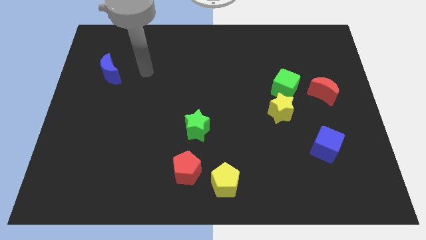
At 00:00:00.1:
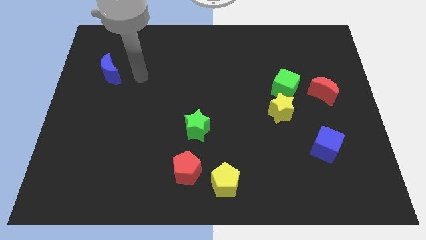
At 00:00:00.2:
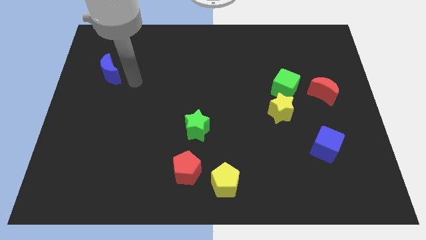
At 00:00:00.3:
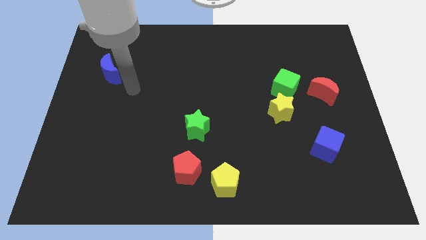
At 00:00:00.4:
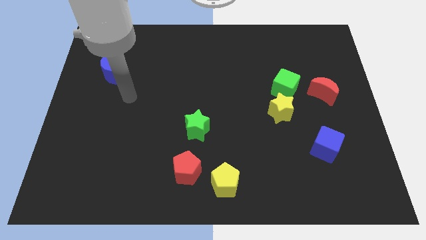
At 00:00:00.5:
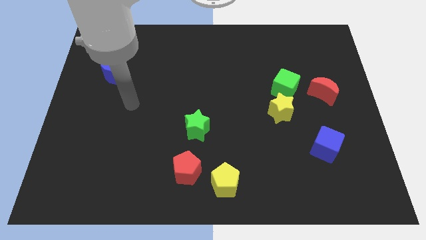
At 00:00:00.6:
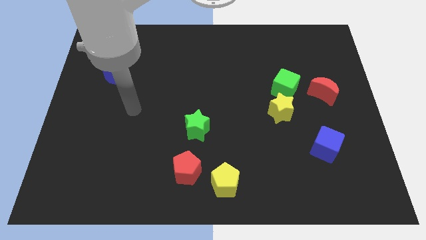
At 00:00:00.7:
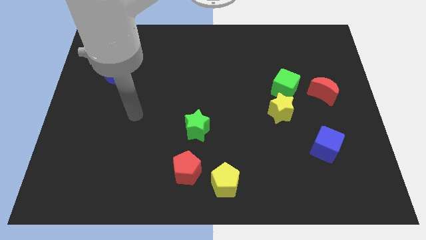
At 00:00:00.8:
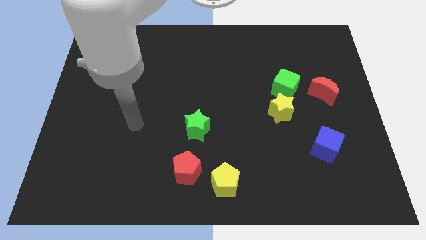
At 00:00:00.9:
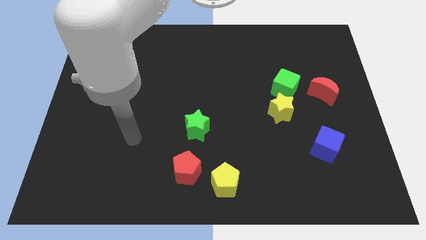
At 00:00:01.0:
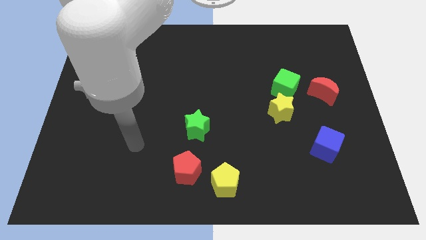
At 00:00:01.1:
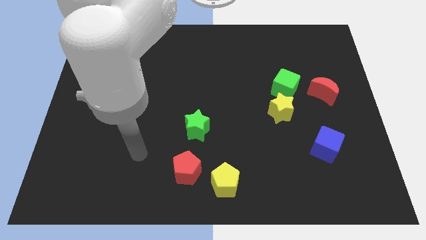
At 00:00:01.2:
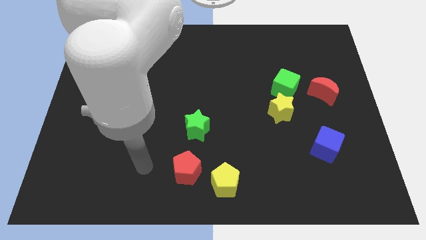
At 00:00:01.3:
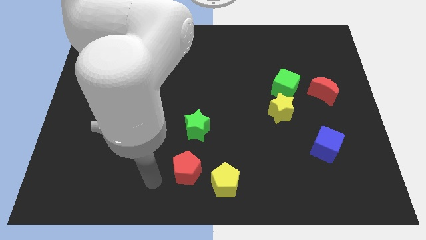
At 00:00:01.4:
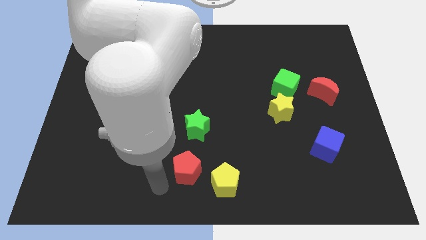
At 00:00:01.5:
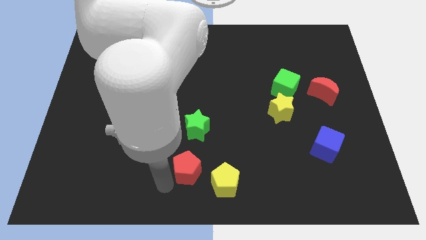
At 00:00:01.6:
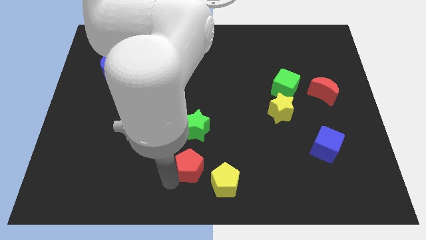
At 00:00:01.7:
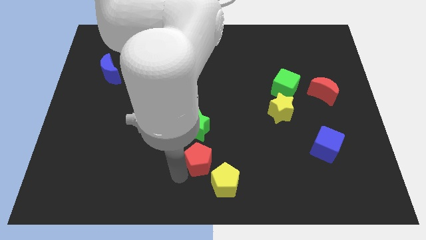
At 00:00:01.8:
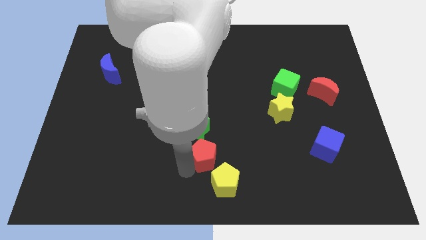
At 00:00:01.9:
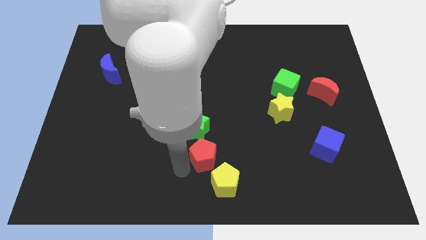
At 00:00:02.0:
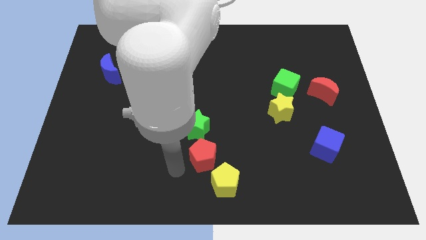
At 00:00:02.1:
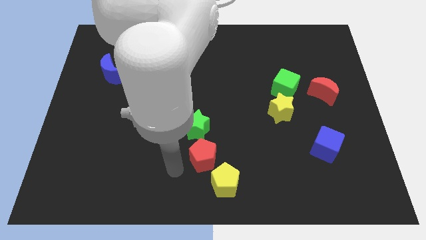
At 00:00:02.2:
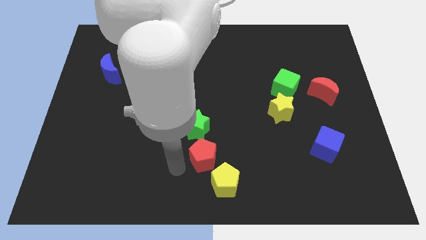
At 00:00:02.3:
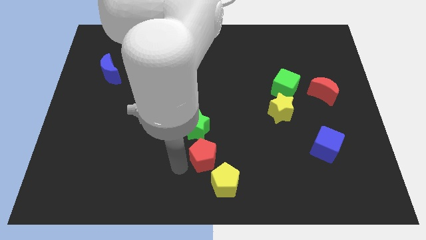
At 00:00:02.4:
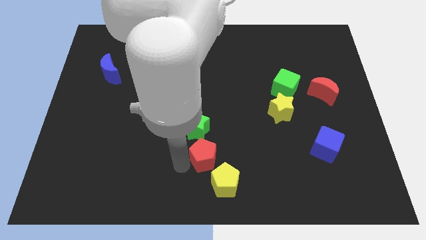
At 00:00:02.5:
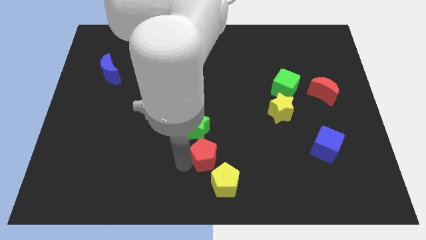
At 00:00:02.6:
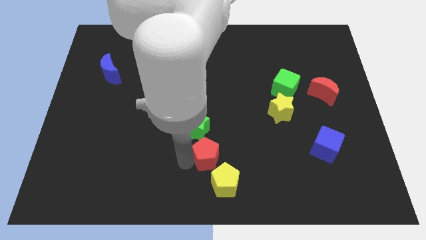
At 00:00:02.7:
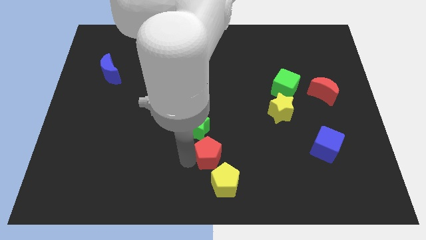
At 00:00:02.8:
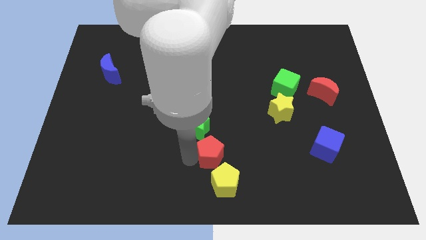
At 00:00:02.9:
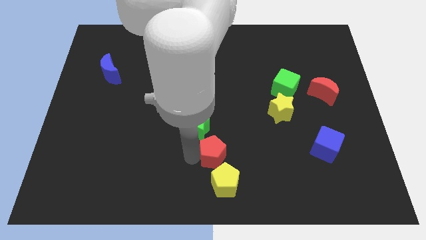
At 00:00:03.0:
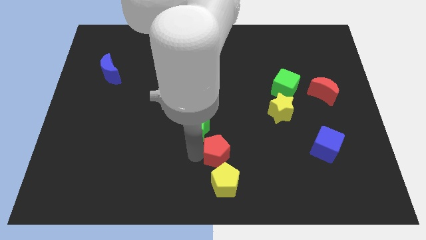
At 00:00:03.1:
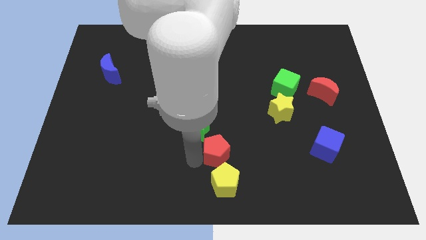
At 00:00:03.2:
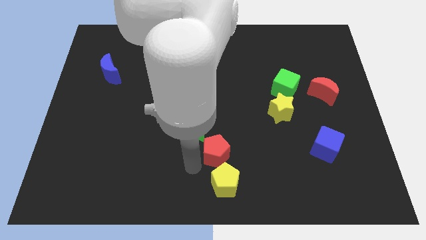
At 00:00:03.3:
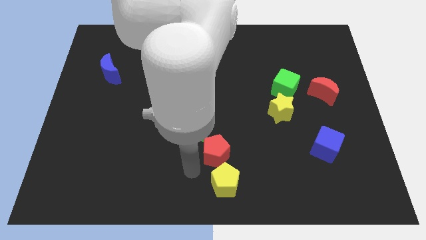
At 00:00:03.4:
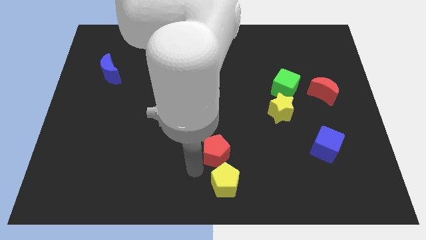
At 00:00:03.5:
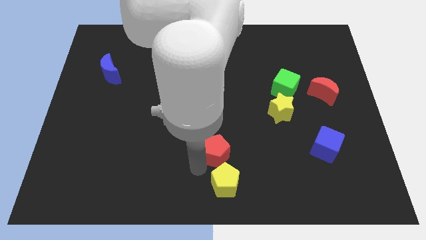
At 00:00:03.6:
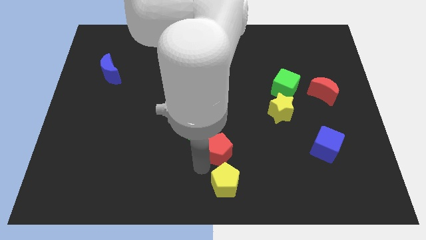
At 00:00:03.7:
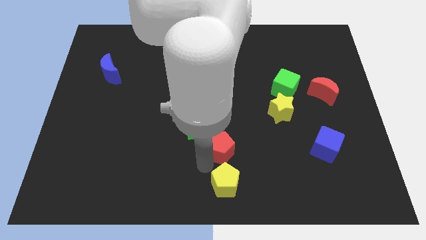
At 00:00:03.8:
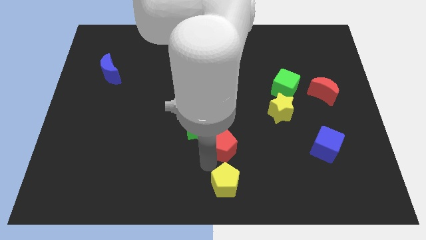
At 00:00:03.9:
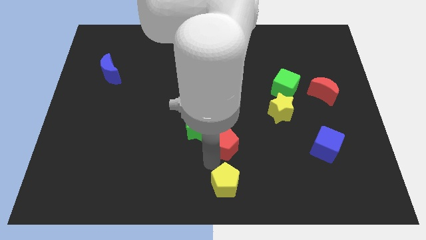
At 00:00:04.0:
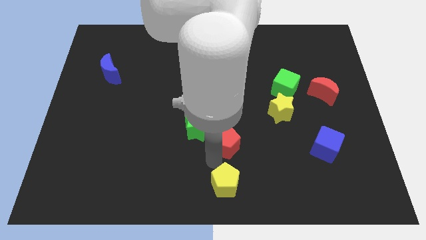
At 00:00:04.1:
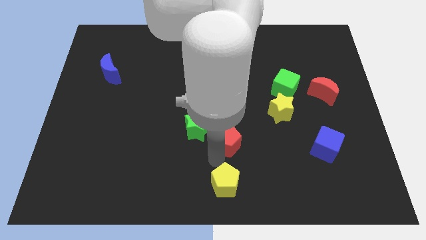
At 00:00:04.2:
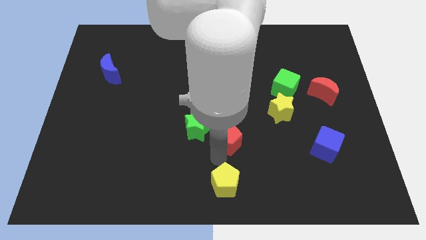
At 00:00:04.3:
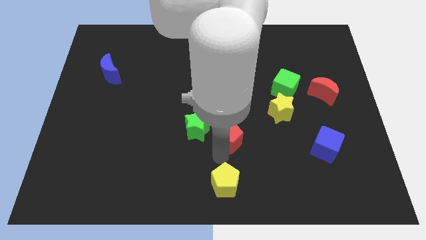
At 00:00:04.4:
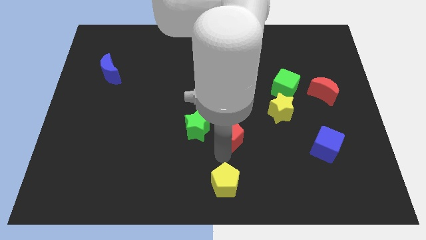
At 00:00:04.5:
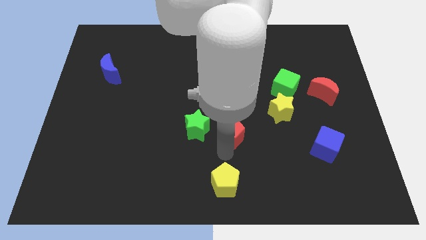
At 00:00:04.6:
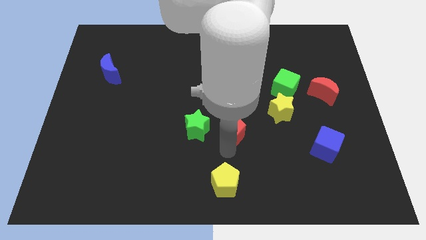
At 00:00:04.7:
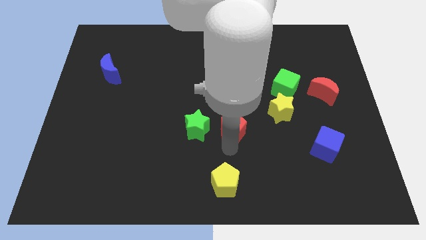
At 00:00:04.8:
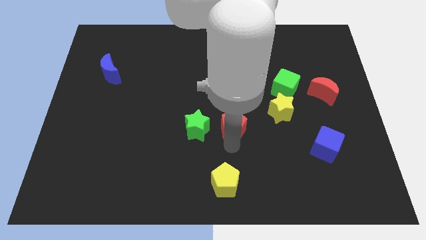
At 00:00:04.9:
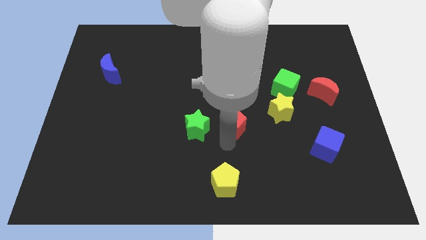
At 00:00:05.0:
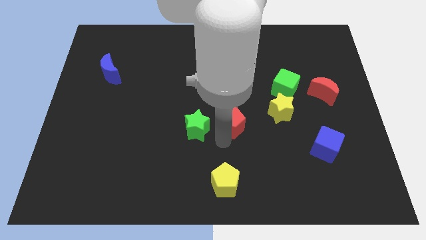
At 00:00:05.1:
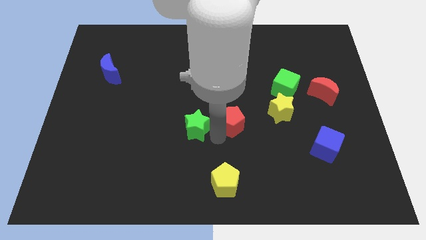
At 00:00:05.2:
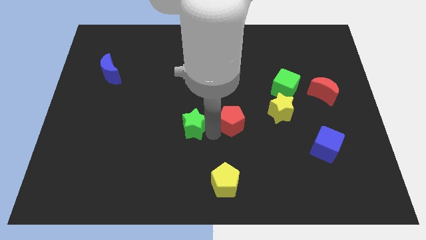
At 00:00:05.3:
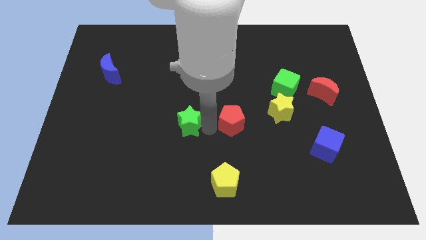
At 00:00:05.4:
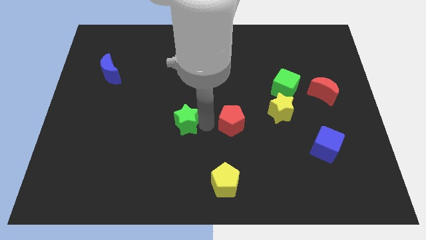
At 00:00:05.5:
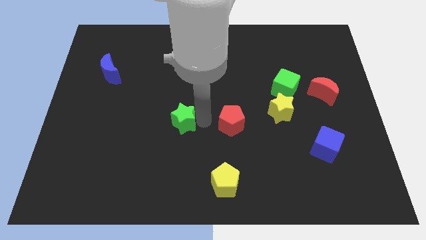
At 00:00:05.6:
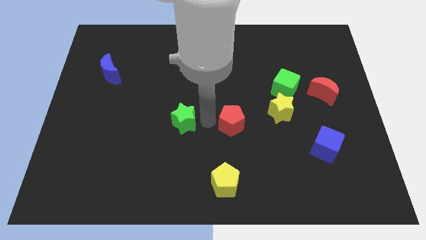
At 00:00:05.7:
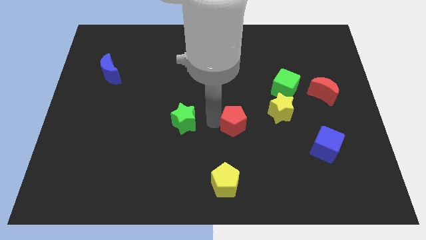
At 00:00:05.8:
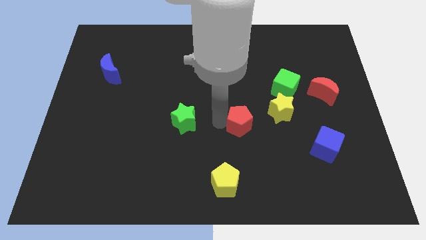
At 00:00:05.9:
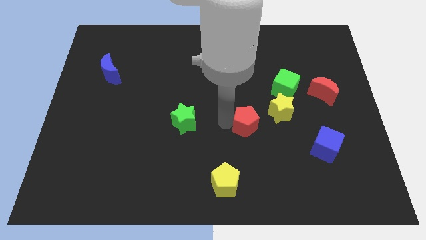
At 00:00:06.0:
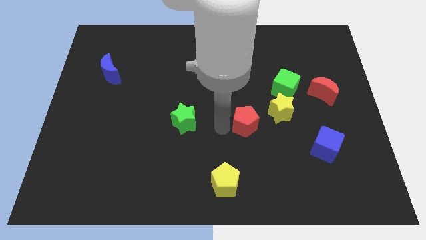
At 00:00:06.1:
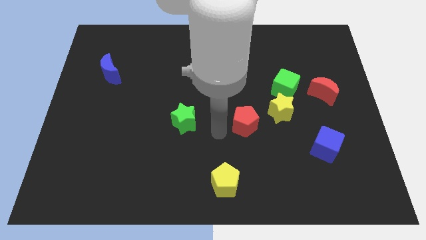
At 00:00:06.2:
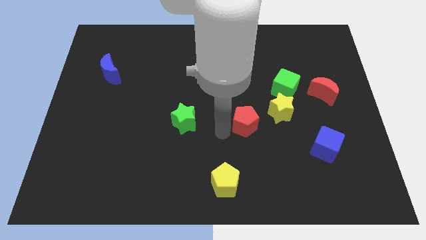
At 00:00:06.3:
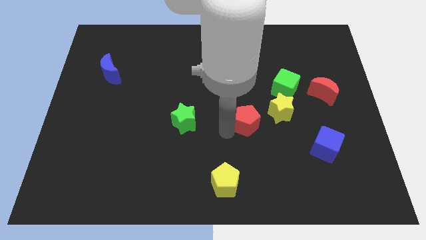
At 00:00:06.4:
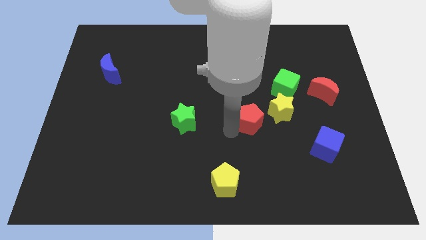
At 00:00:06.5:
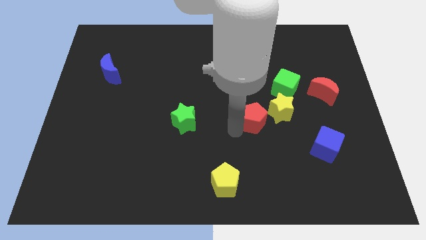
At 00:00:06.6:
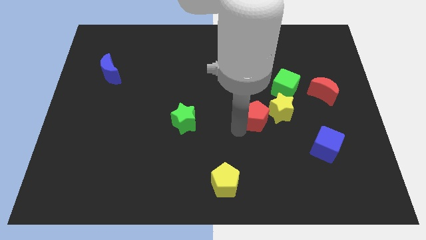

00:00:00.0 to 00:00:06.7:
put the red pentagon towards the yellow star
